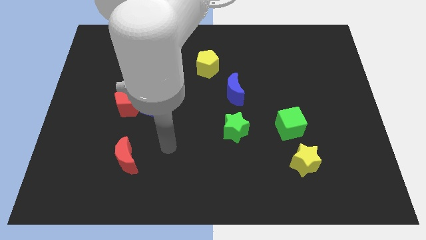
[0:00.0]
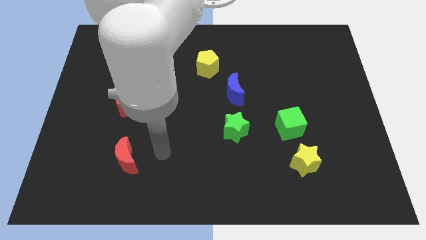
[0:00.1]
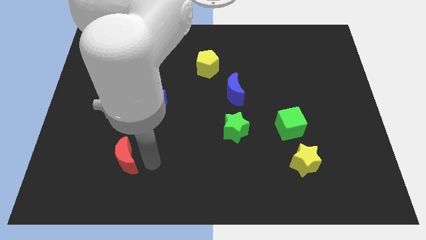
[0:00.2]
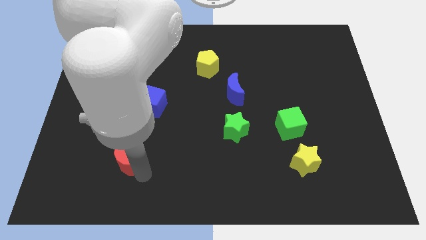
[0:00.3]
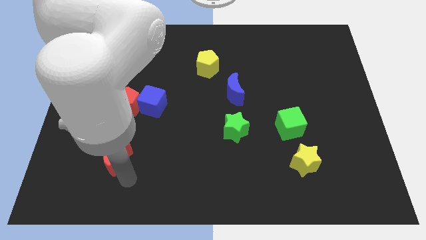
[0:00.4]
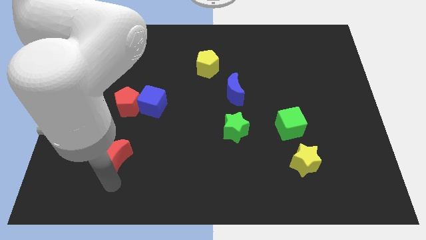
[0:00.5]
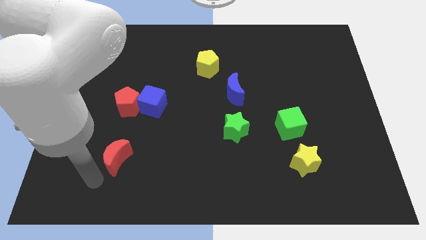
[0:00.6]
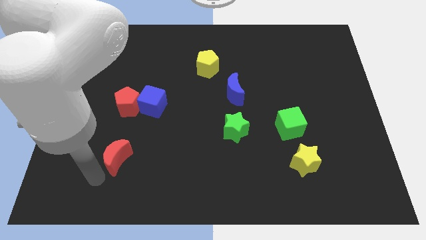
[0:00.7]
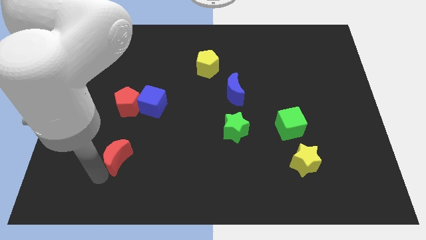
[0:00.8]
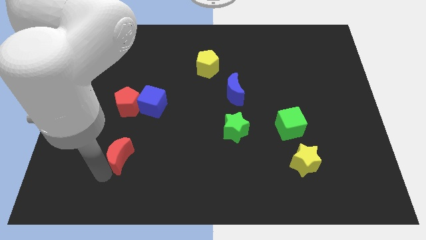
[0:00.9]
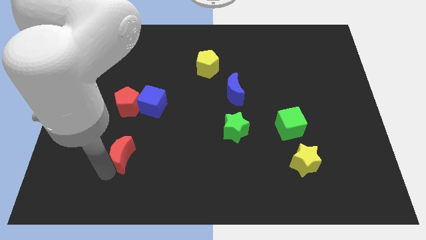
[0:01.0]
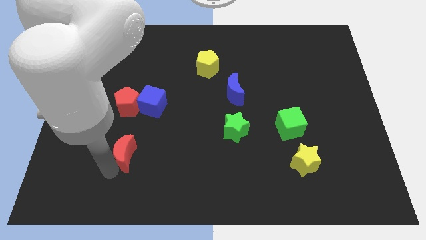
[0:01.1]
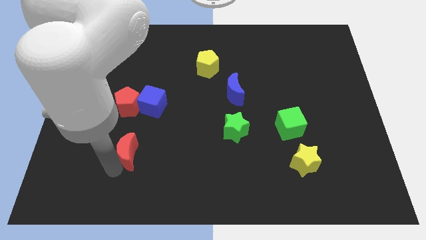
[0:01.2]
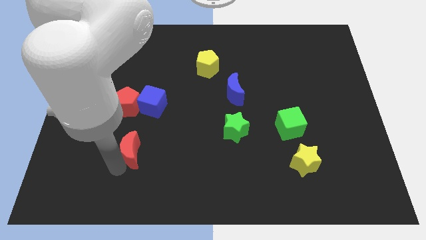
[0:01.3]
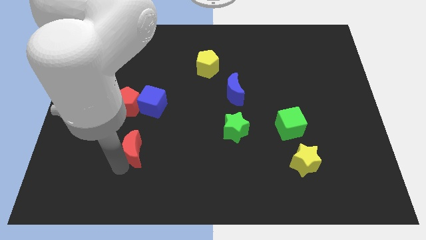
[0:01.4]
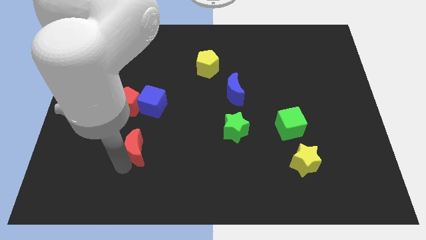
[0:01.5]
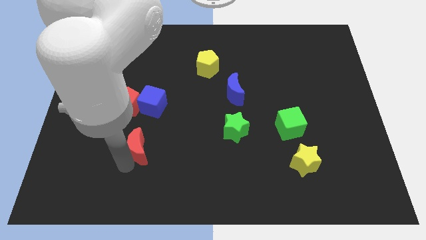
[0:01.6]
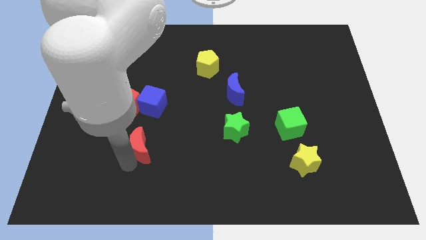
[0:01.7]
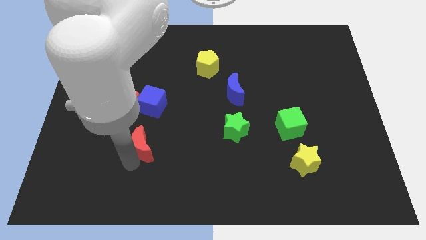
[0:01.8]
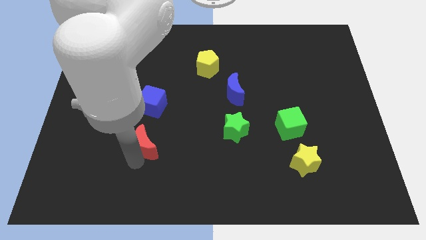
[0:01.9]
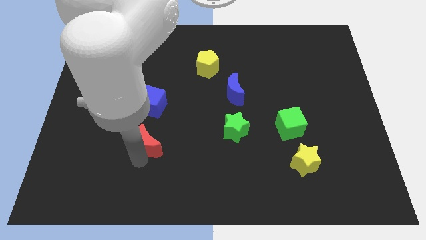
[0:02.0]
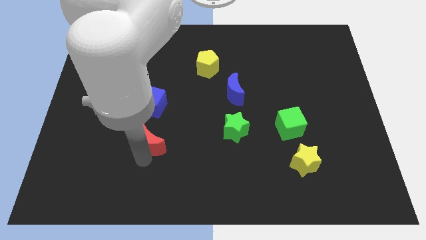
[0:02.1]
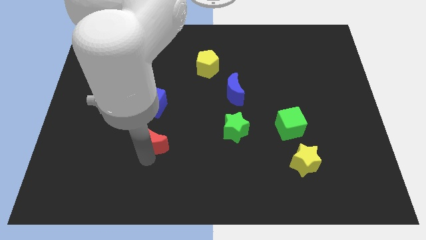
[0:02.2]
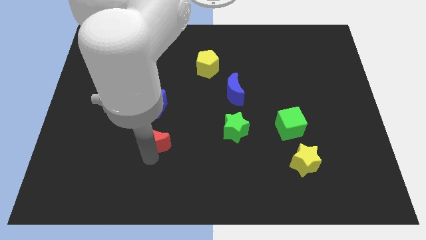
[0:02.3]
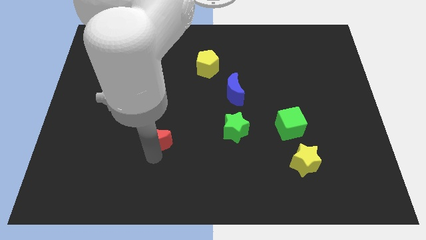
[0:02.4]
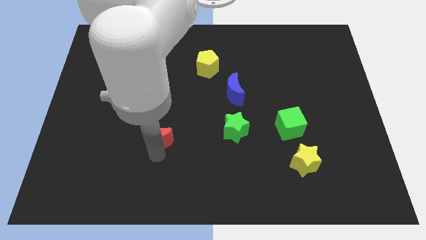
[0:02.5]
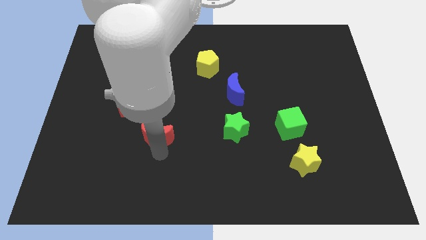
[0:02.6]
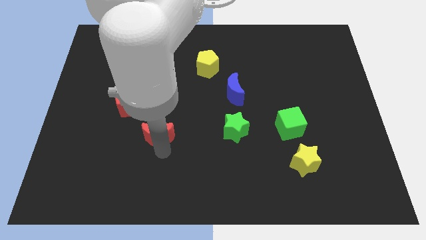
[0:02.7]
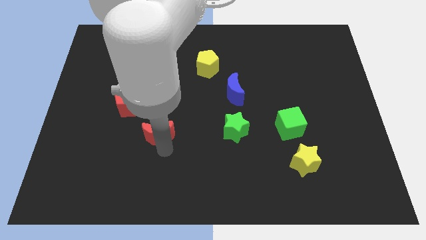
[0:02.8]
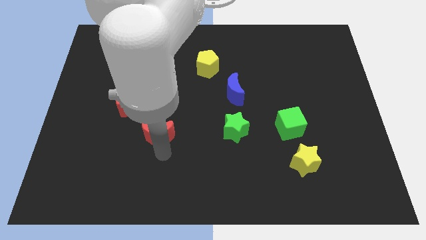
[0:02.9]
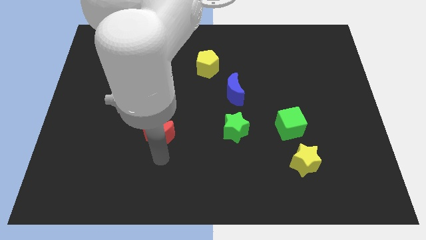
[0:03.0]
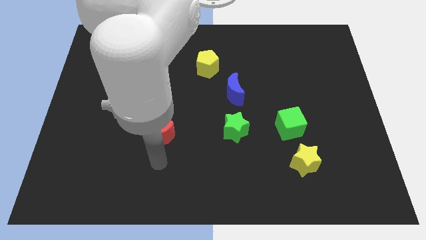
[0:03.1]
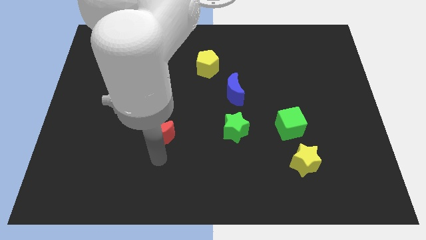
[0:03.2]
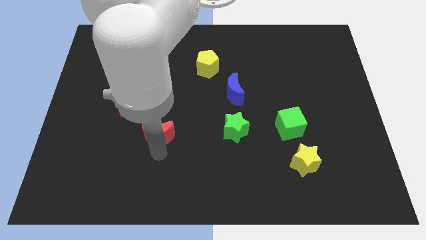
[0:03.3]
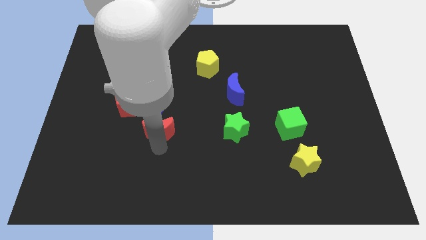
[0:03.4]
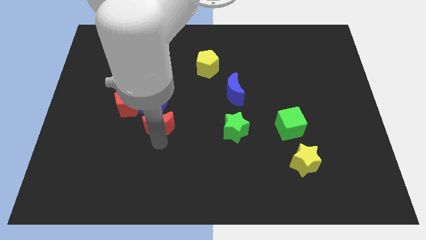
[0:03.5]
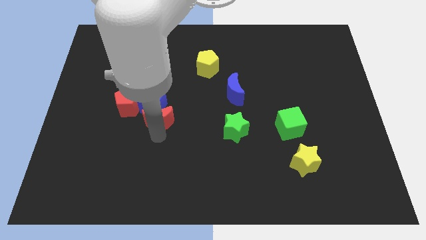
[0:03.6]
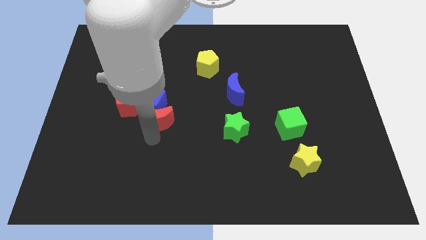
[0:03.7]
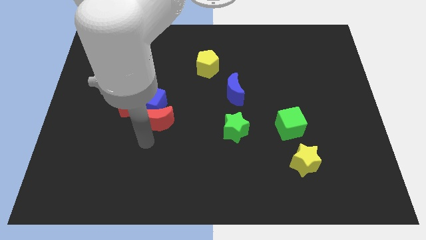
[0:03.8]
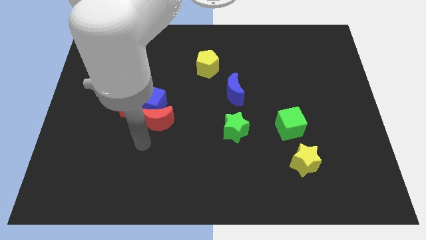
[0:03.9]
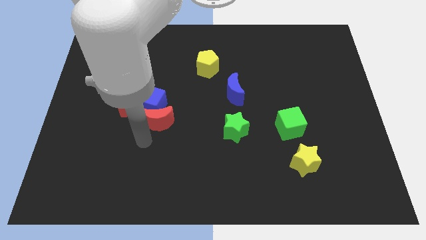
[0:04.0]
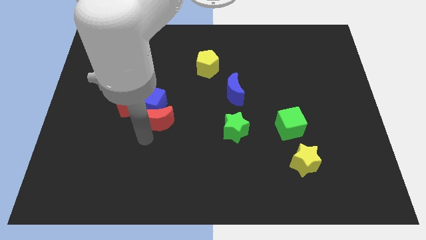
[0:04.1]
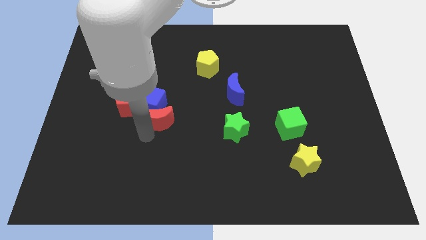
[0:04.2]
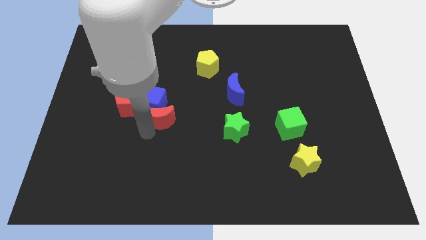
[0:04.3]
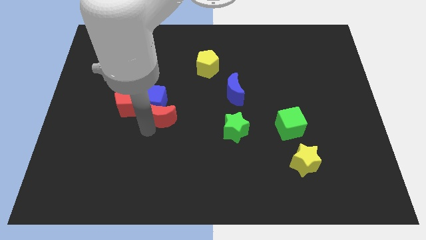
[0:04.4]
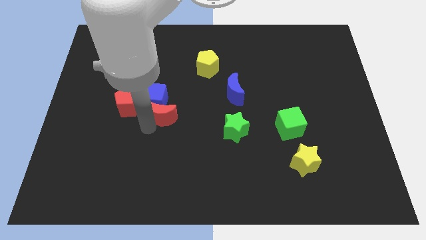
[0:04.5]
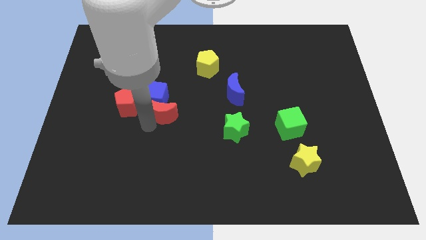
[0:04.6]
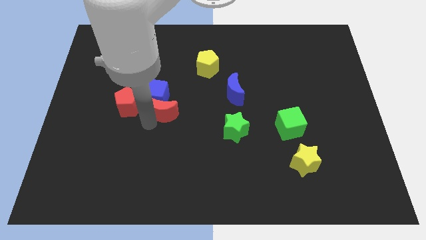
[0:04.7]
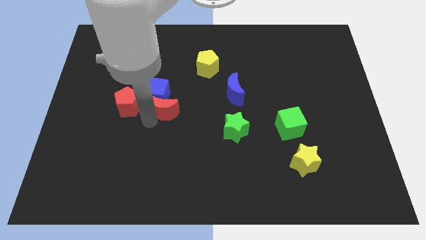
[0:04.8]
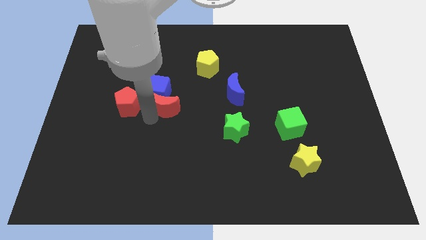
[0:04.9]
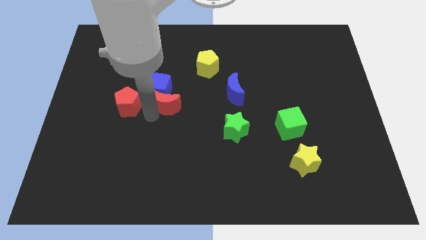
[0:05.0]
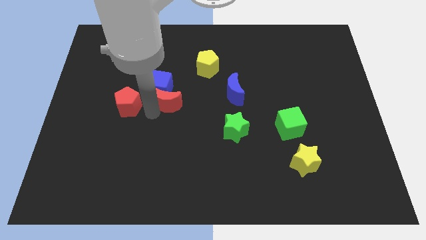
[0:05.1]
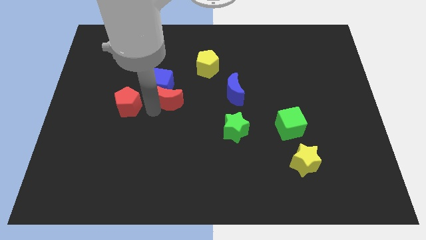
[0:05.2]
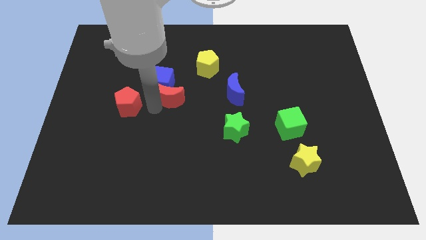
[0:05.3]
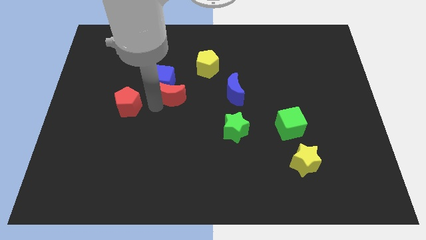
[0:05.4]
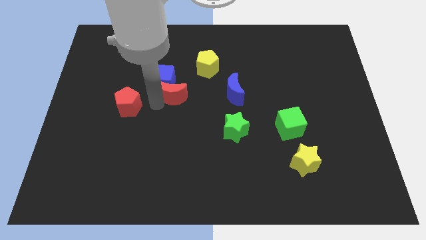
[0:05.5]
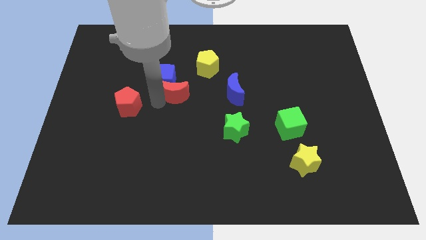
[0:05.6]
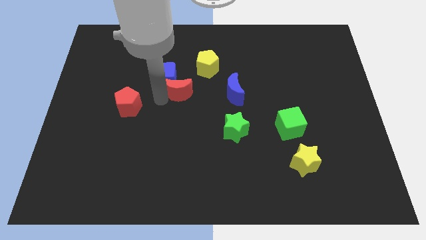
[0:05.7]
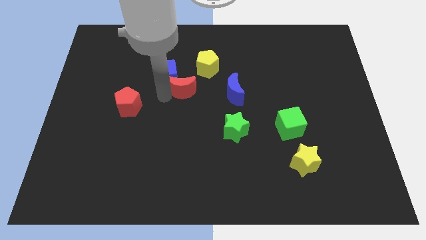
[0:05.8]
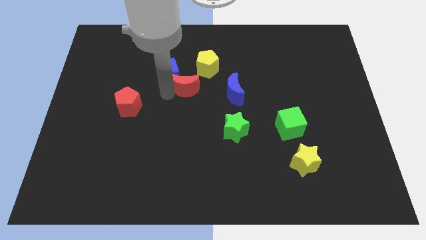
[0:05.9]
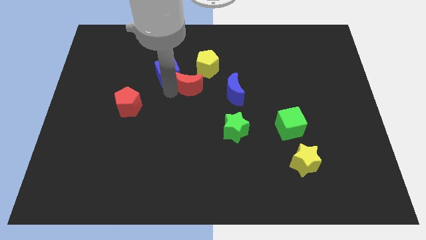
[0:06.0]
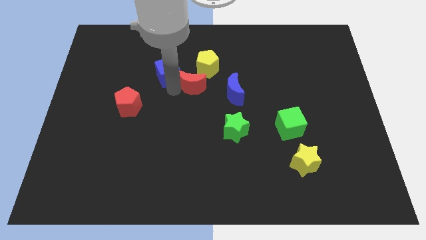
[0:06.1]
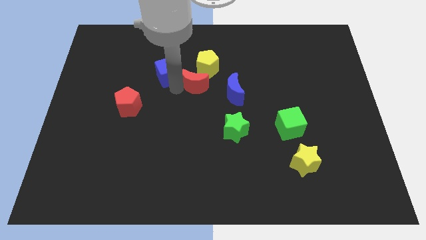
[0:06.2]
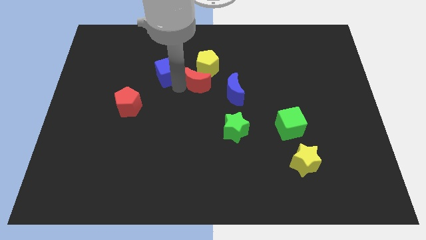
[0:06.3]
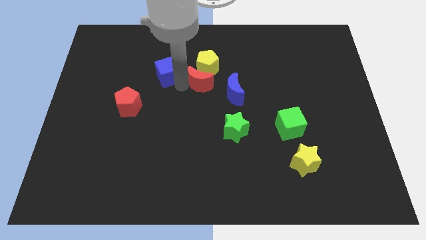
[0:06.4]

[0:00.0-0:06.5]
slide the red moon next to the yellow pentagon
